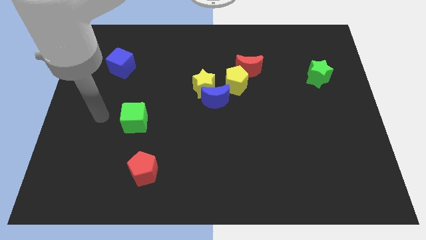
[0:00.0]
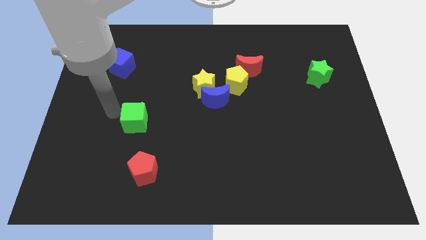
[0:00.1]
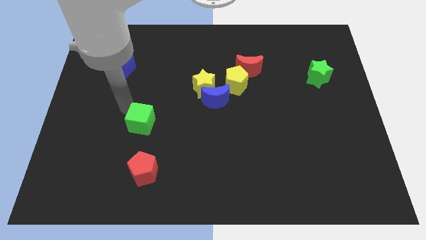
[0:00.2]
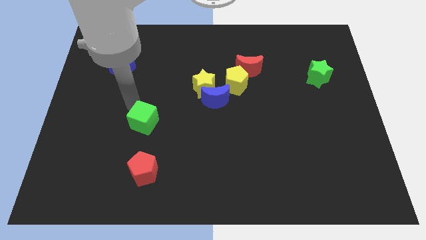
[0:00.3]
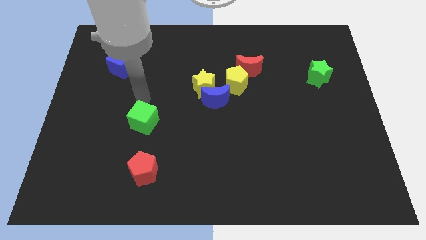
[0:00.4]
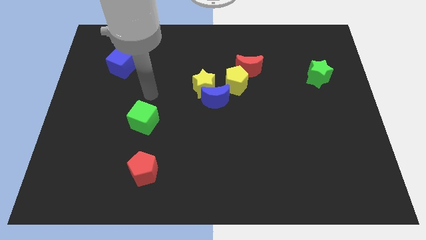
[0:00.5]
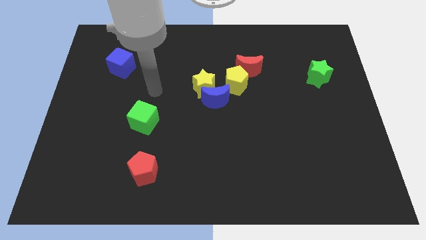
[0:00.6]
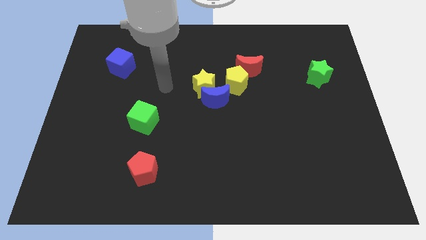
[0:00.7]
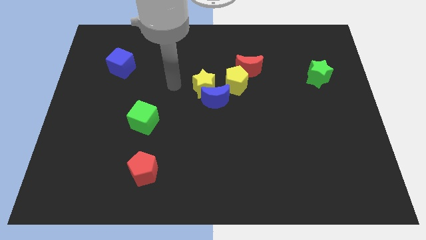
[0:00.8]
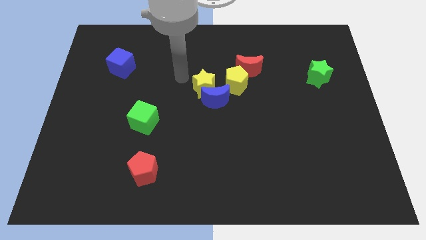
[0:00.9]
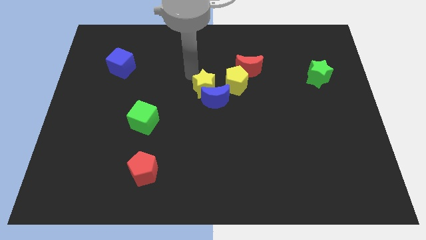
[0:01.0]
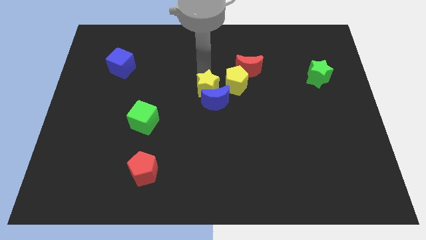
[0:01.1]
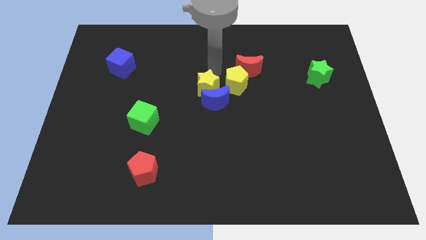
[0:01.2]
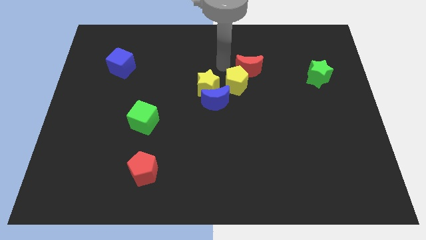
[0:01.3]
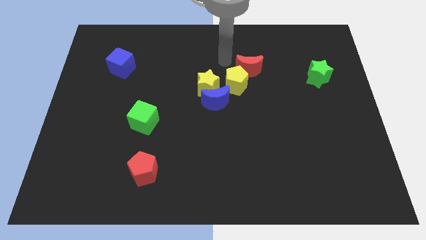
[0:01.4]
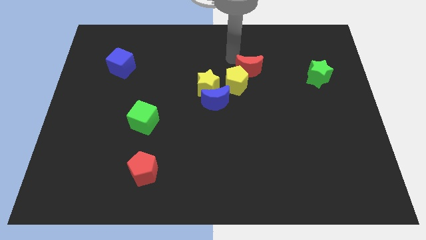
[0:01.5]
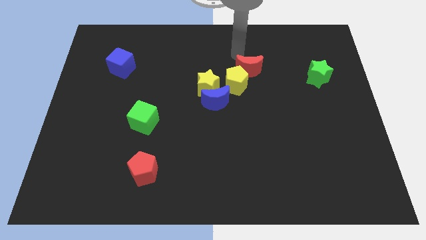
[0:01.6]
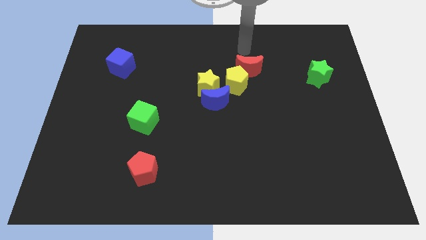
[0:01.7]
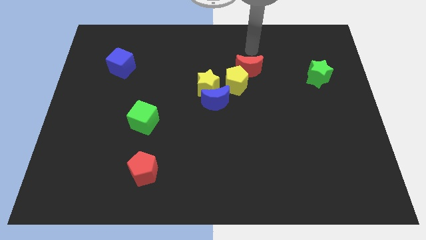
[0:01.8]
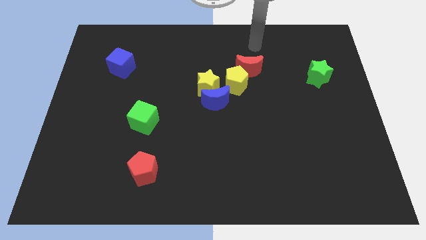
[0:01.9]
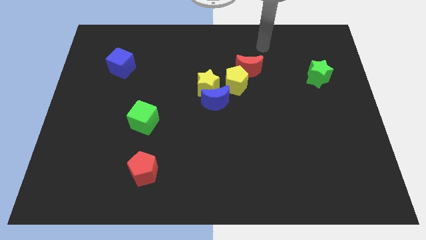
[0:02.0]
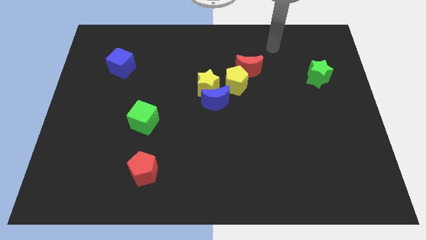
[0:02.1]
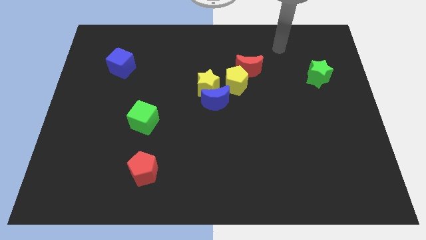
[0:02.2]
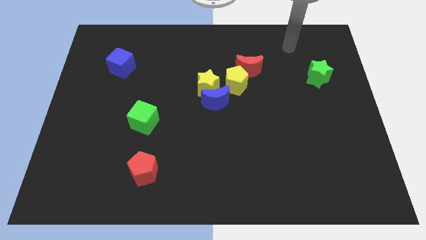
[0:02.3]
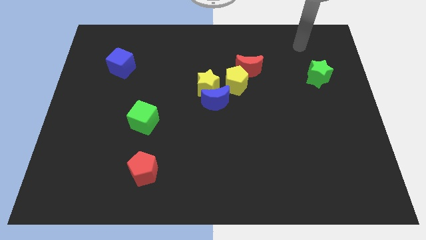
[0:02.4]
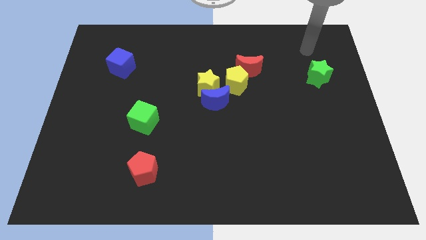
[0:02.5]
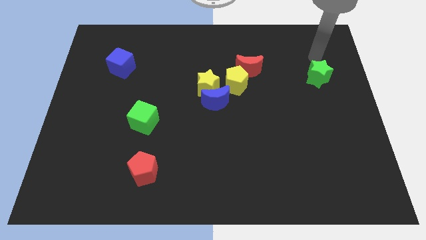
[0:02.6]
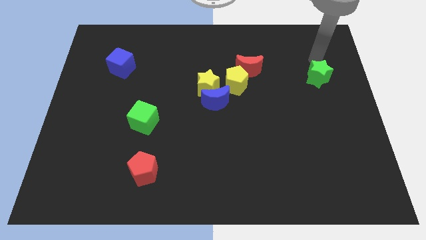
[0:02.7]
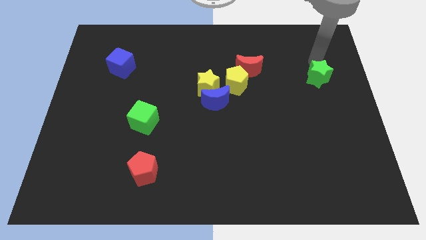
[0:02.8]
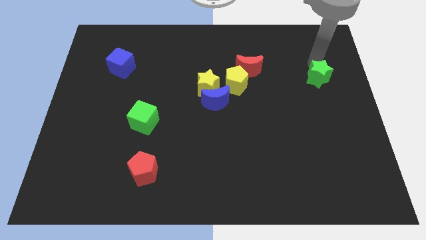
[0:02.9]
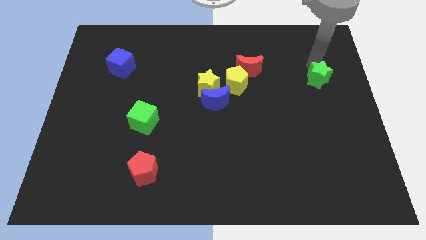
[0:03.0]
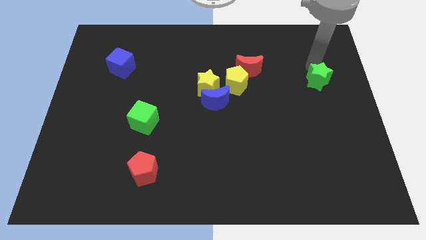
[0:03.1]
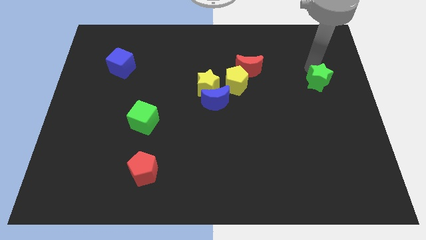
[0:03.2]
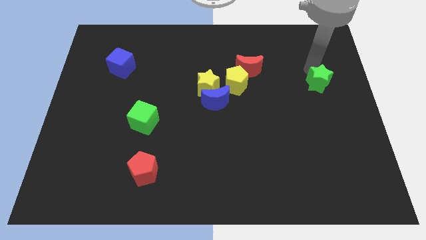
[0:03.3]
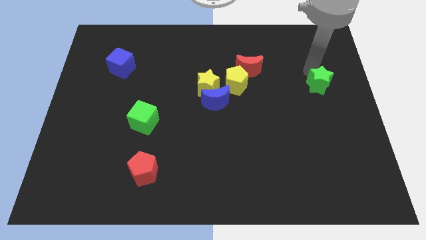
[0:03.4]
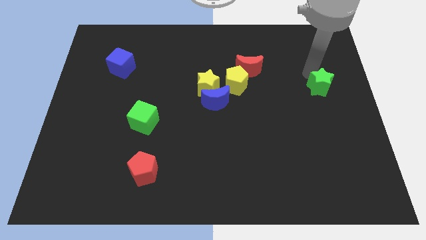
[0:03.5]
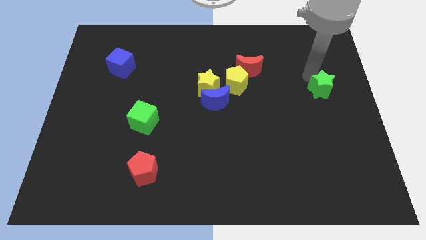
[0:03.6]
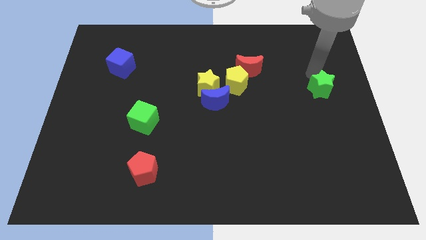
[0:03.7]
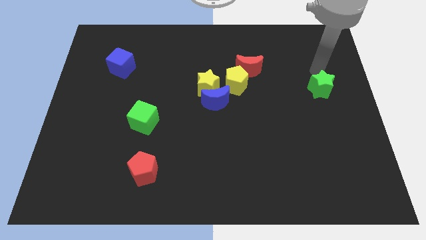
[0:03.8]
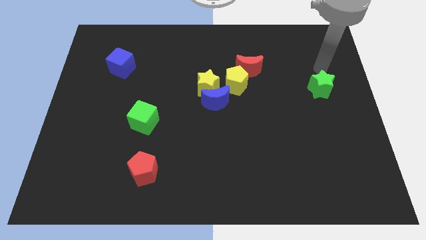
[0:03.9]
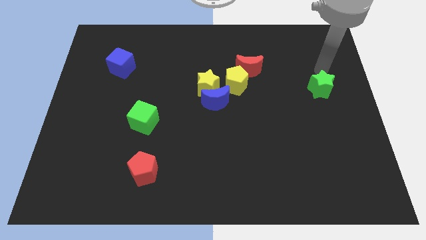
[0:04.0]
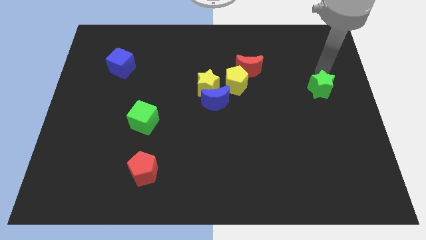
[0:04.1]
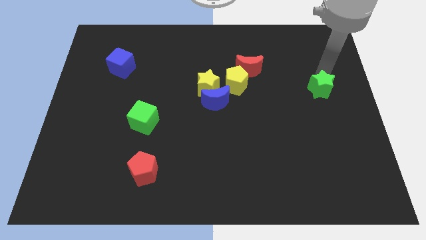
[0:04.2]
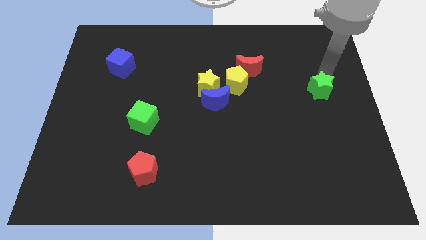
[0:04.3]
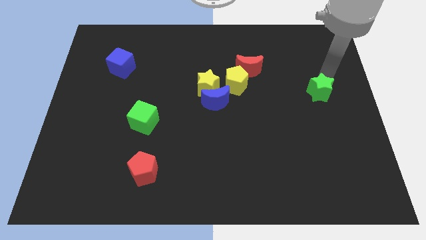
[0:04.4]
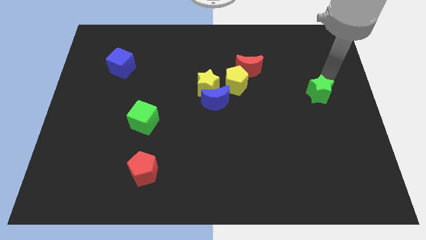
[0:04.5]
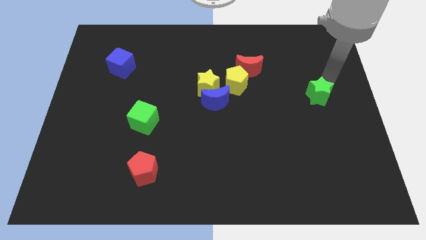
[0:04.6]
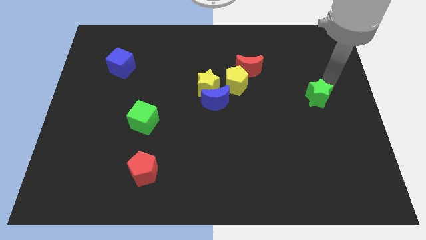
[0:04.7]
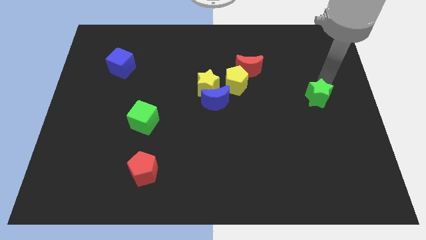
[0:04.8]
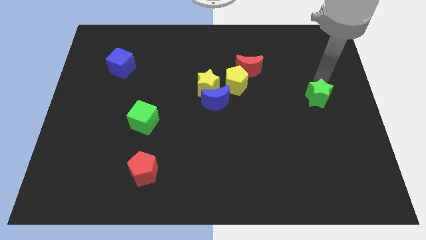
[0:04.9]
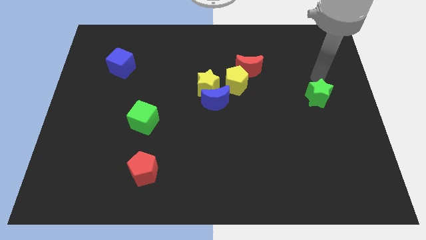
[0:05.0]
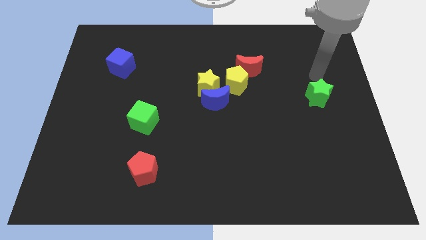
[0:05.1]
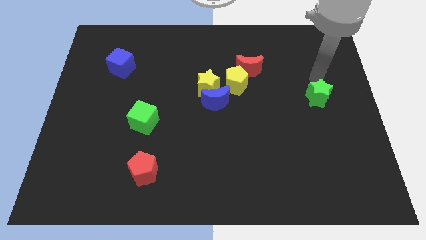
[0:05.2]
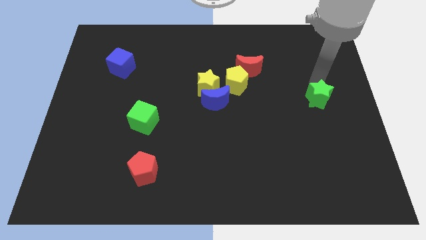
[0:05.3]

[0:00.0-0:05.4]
move the green star a little down

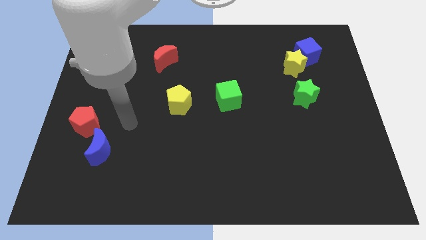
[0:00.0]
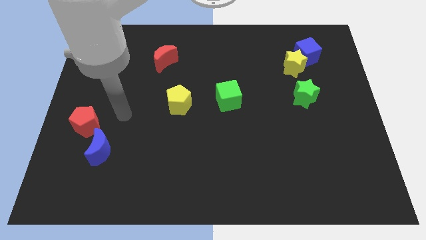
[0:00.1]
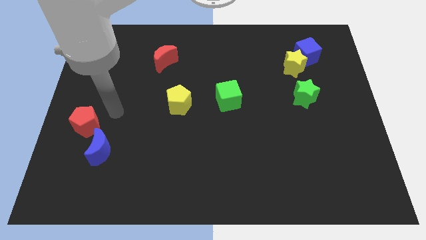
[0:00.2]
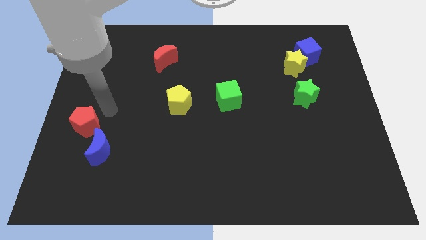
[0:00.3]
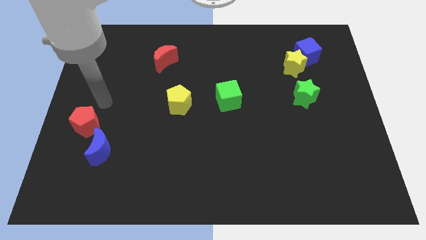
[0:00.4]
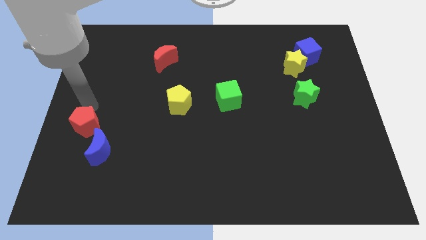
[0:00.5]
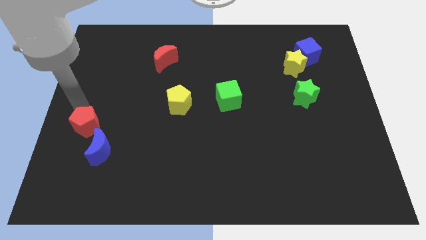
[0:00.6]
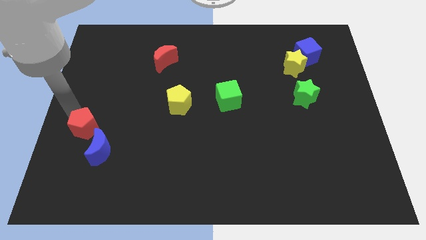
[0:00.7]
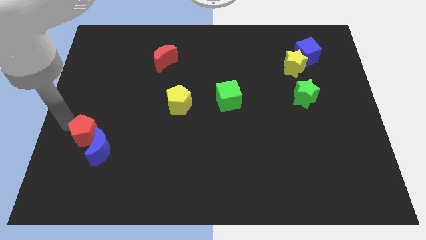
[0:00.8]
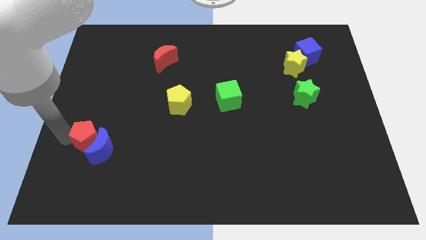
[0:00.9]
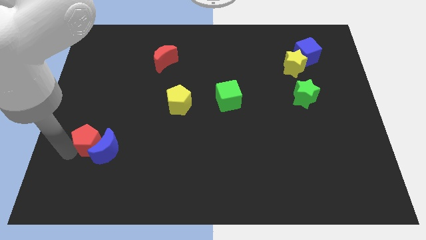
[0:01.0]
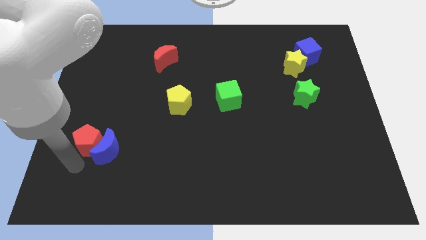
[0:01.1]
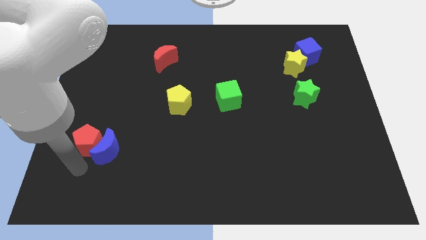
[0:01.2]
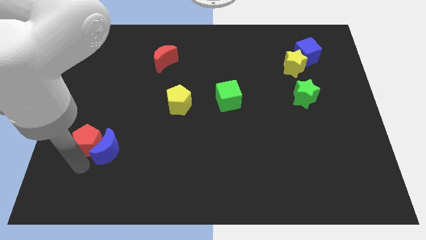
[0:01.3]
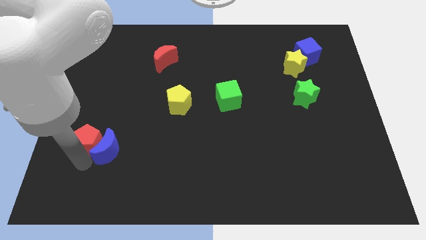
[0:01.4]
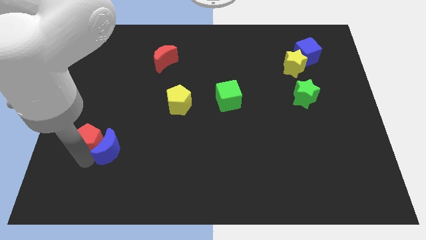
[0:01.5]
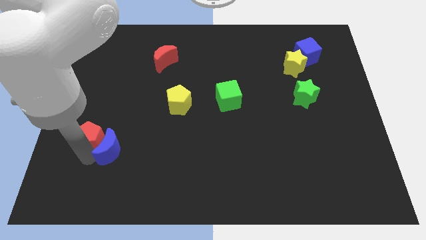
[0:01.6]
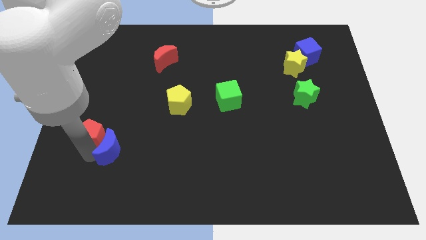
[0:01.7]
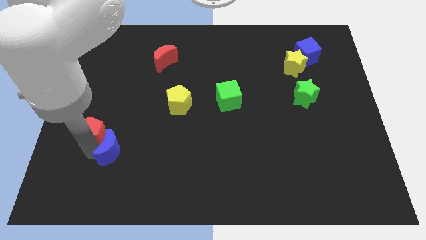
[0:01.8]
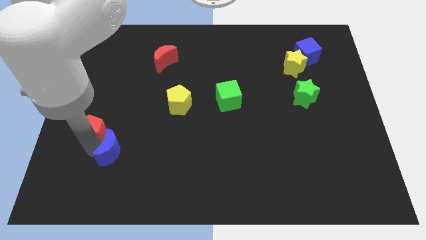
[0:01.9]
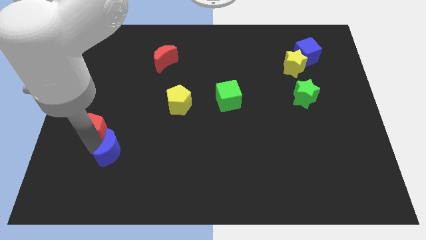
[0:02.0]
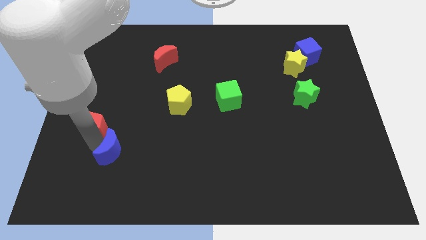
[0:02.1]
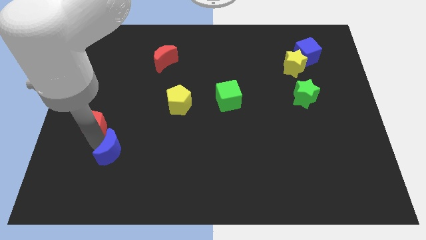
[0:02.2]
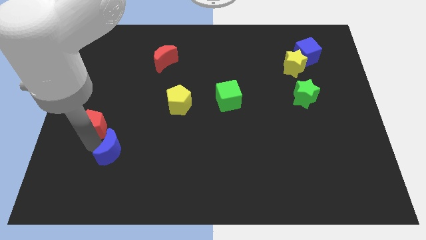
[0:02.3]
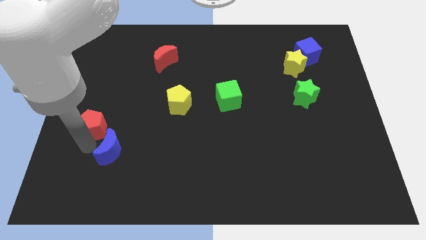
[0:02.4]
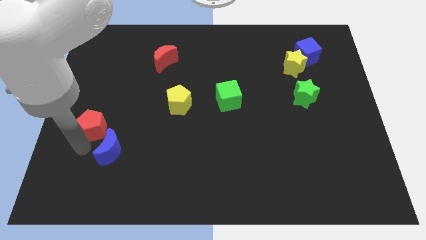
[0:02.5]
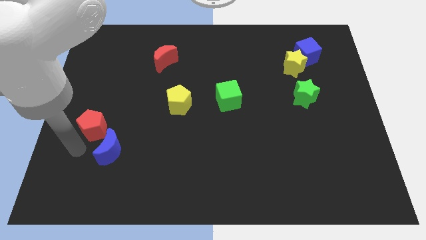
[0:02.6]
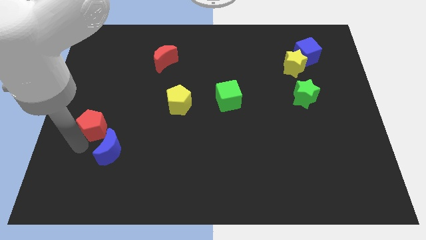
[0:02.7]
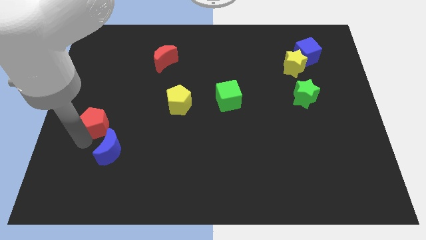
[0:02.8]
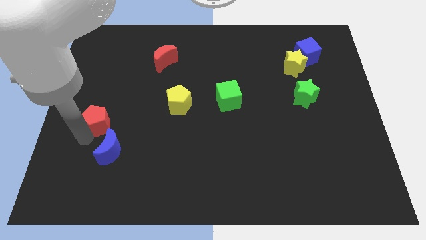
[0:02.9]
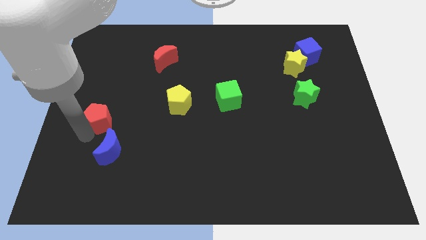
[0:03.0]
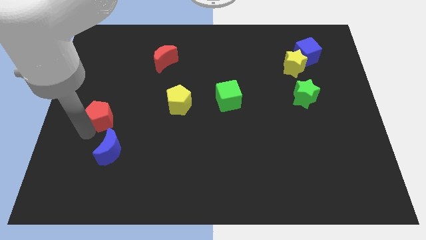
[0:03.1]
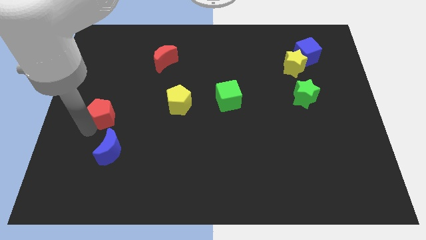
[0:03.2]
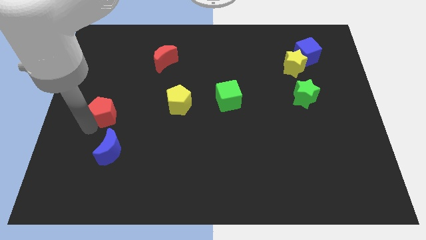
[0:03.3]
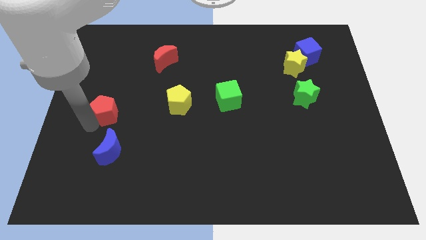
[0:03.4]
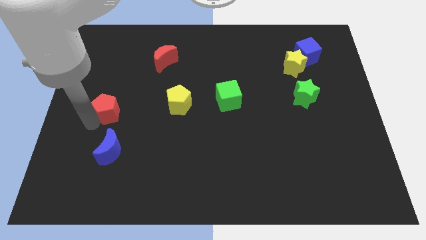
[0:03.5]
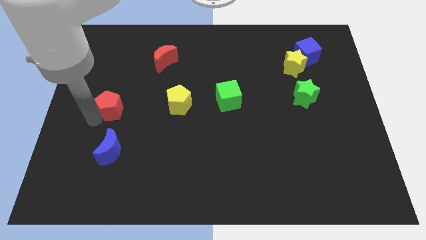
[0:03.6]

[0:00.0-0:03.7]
slide the red pentagon a little diagonally upwards and to the right
